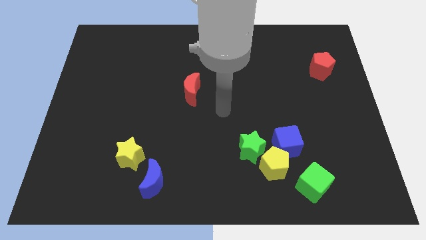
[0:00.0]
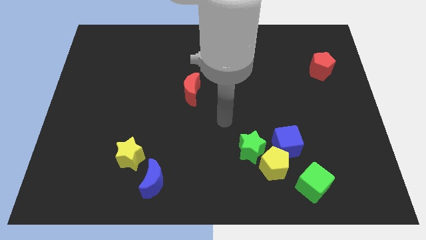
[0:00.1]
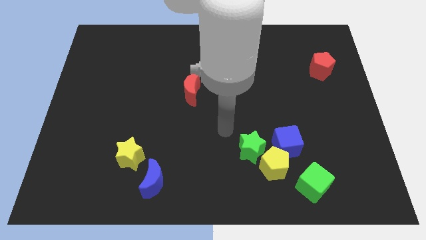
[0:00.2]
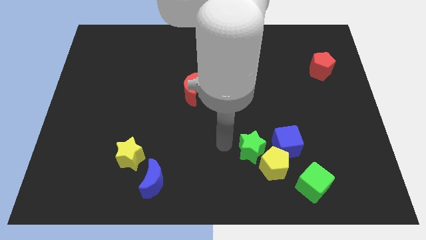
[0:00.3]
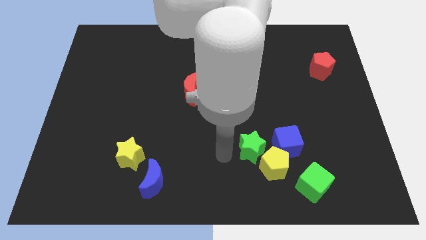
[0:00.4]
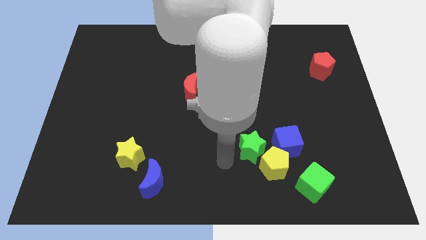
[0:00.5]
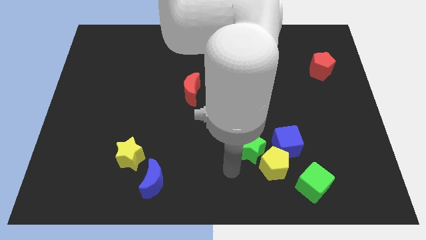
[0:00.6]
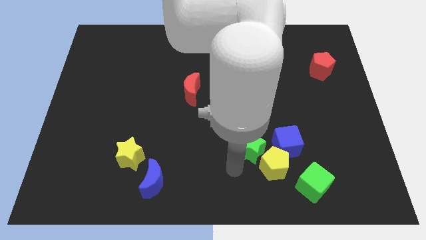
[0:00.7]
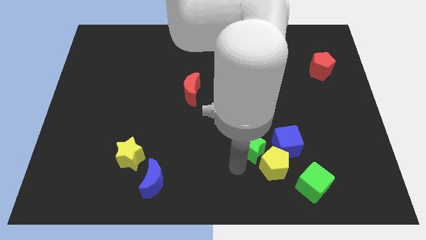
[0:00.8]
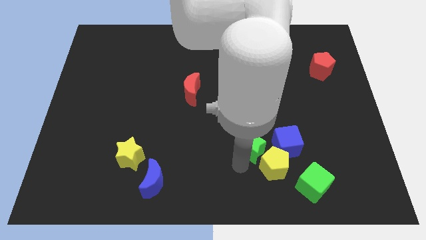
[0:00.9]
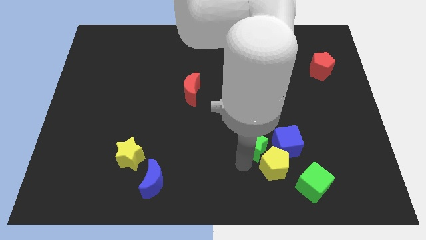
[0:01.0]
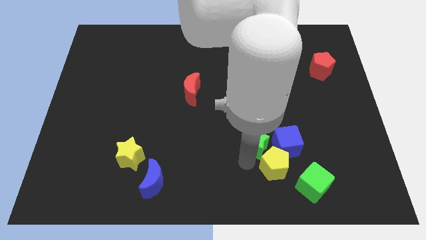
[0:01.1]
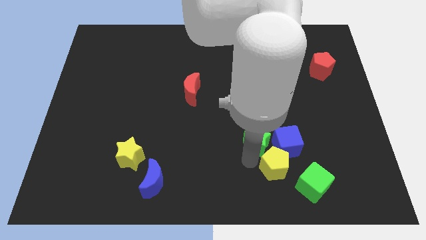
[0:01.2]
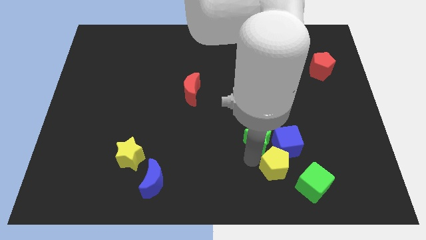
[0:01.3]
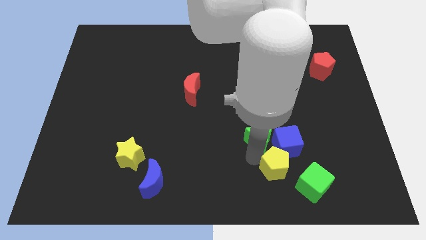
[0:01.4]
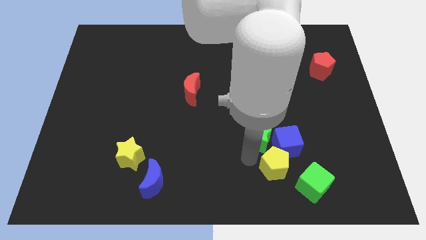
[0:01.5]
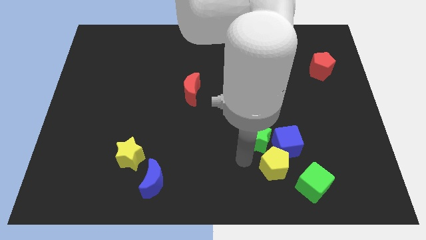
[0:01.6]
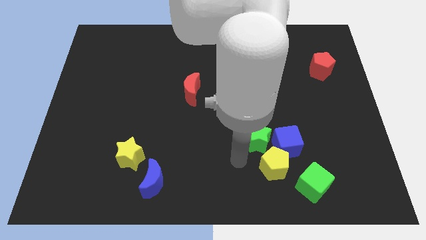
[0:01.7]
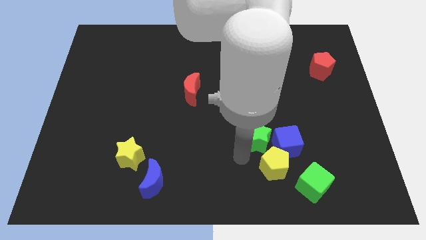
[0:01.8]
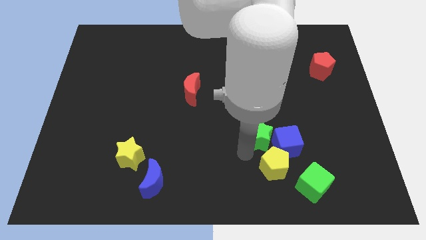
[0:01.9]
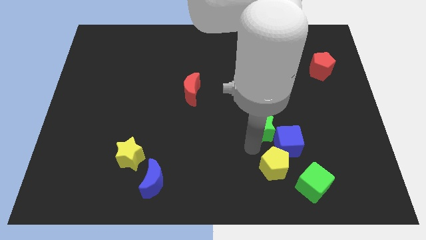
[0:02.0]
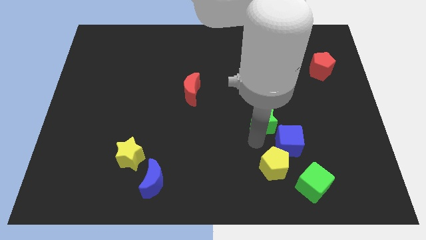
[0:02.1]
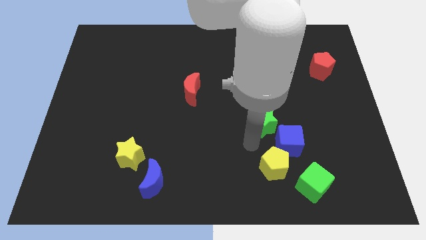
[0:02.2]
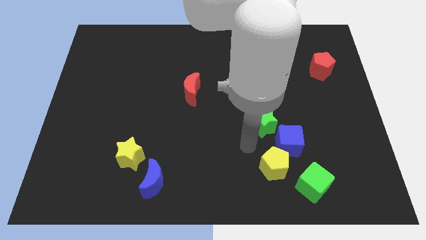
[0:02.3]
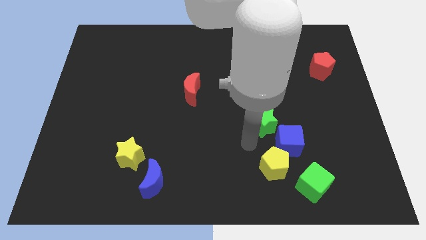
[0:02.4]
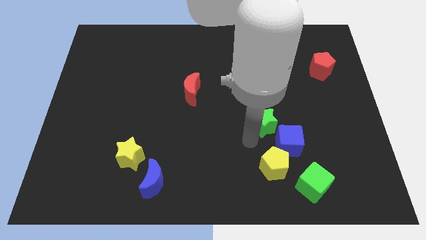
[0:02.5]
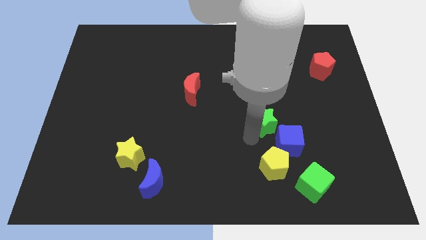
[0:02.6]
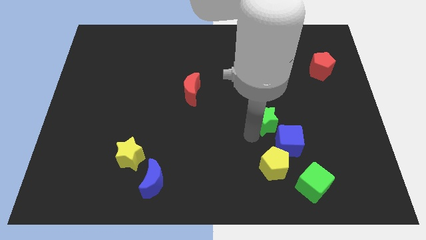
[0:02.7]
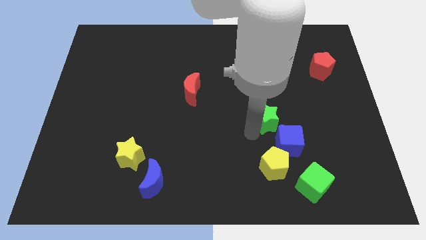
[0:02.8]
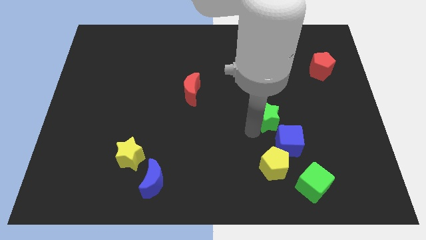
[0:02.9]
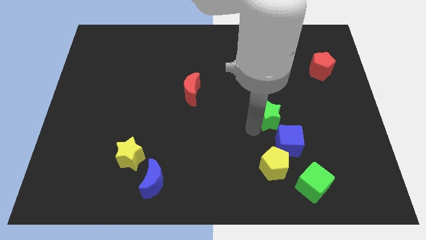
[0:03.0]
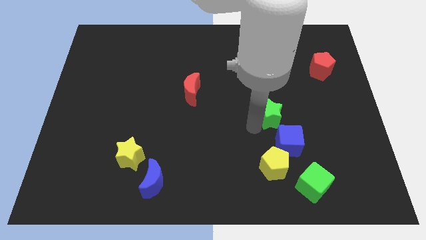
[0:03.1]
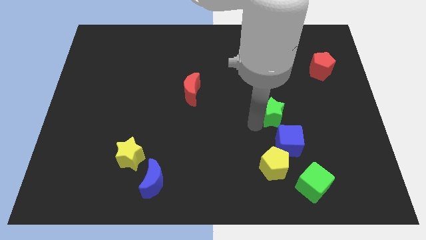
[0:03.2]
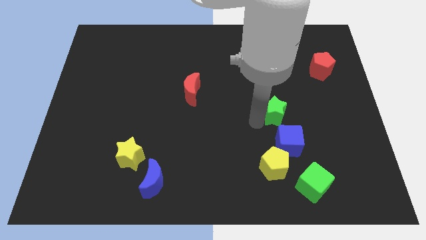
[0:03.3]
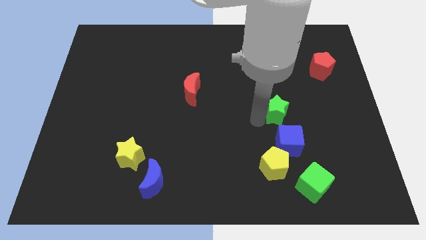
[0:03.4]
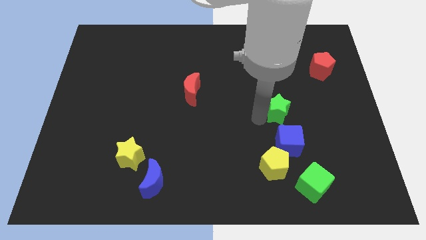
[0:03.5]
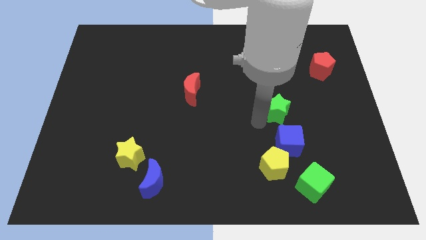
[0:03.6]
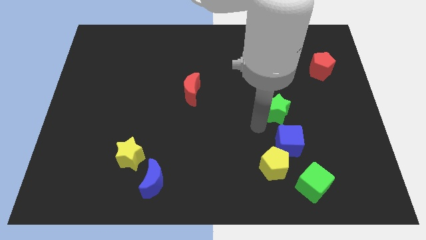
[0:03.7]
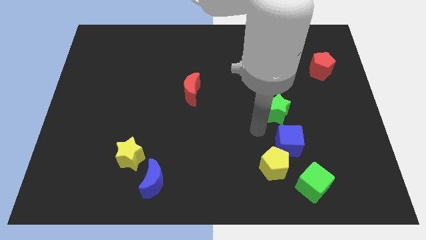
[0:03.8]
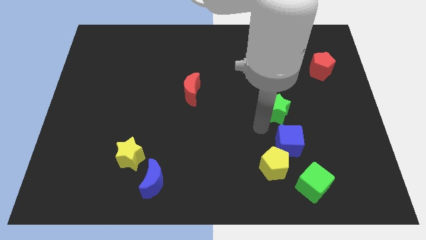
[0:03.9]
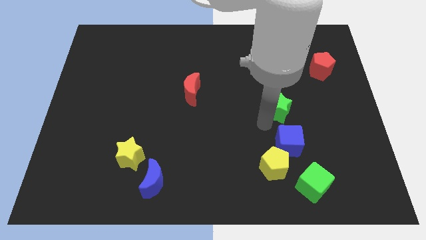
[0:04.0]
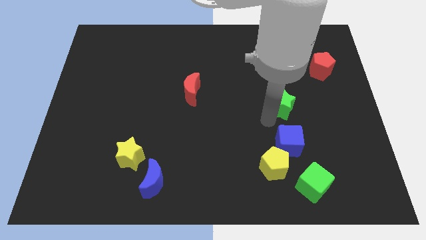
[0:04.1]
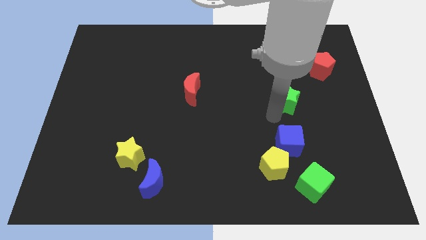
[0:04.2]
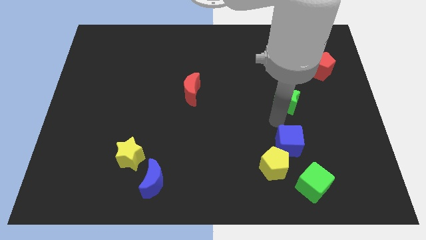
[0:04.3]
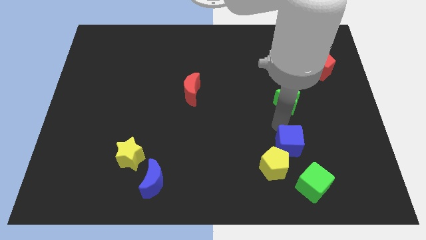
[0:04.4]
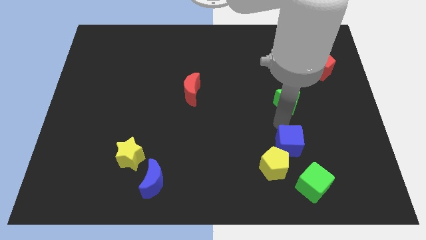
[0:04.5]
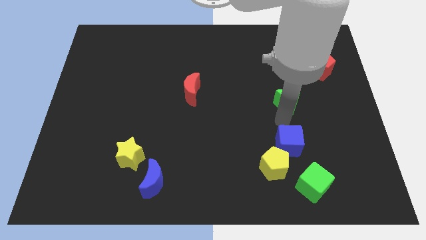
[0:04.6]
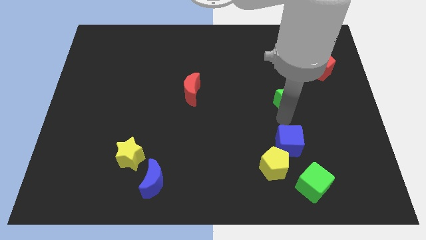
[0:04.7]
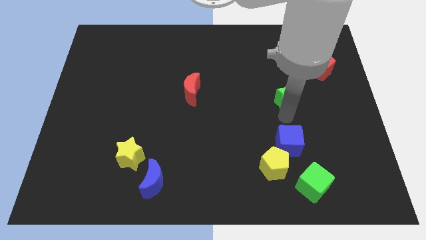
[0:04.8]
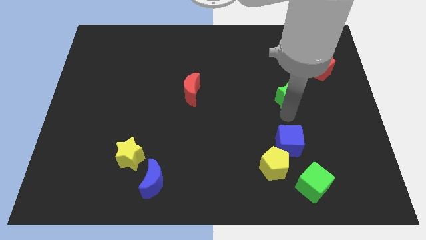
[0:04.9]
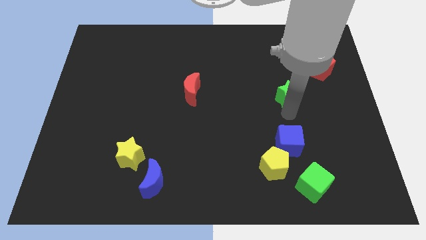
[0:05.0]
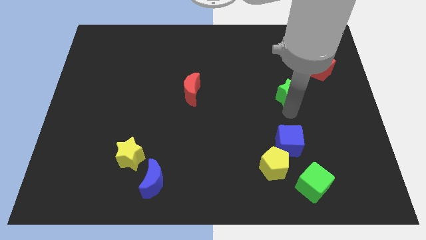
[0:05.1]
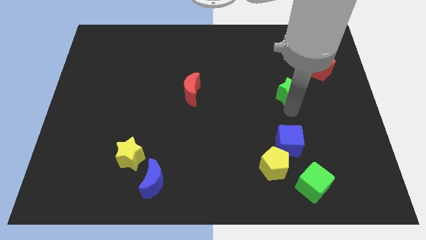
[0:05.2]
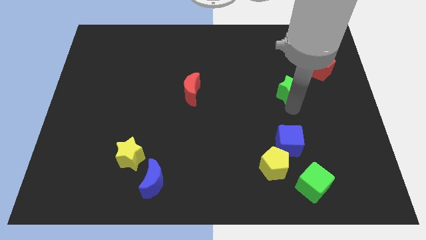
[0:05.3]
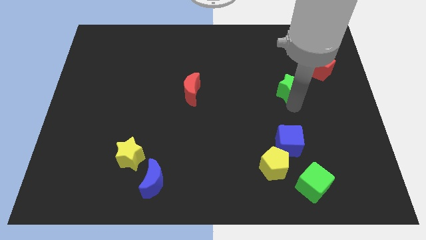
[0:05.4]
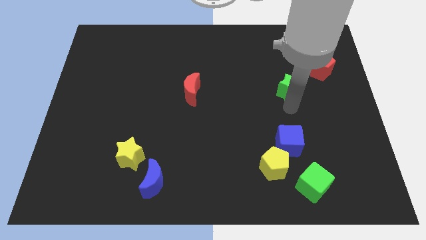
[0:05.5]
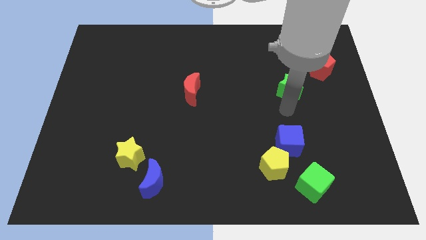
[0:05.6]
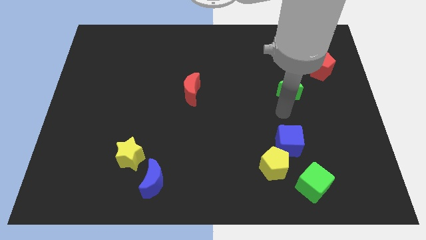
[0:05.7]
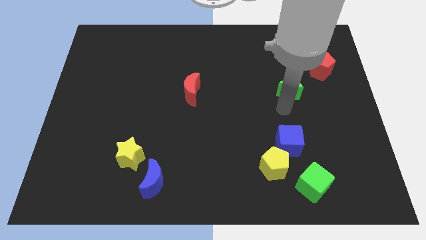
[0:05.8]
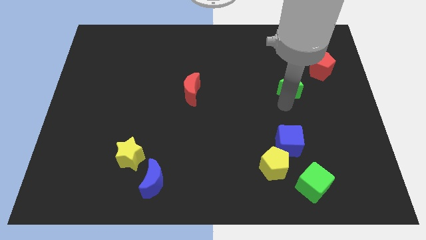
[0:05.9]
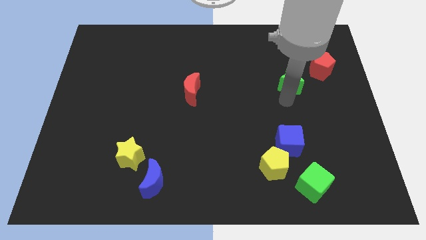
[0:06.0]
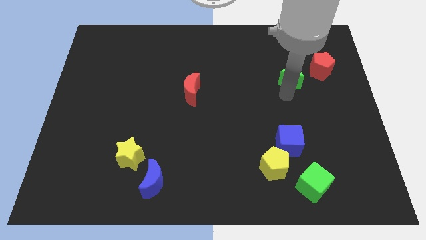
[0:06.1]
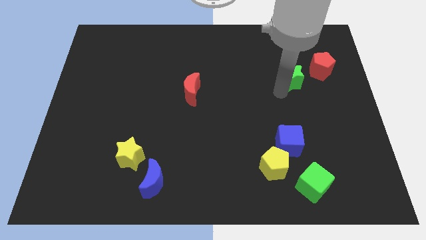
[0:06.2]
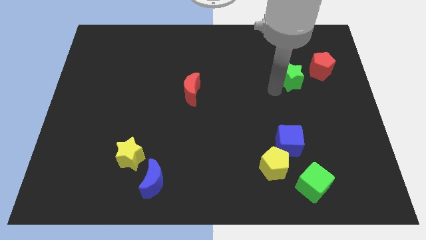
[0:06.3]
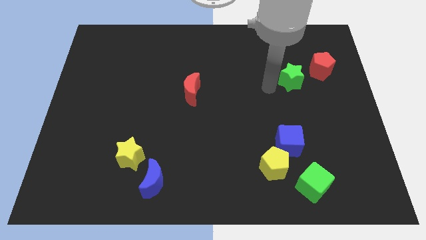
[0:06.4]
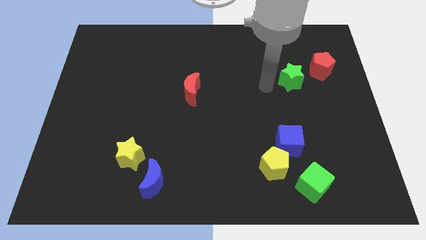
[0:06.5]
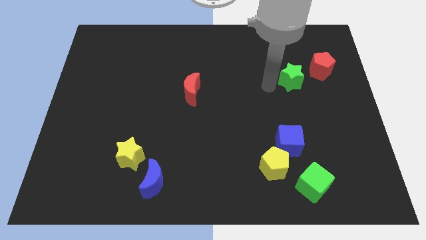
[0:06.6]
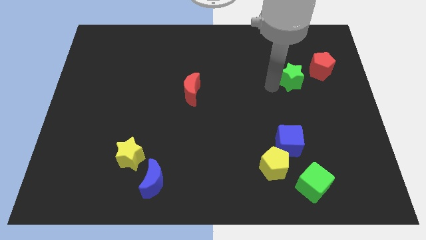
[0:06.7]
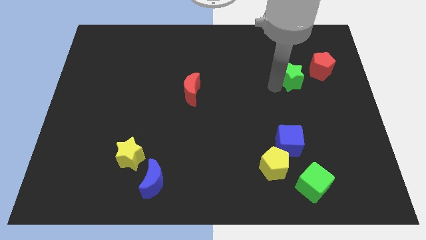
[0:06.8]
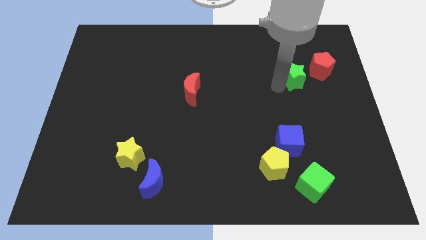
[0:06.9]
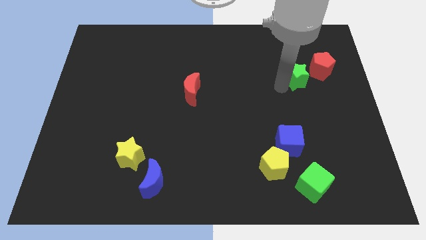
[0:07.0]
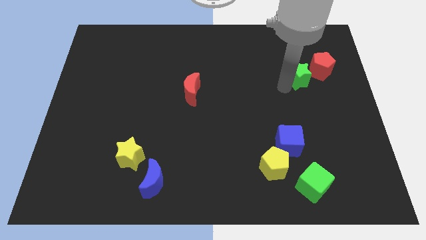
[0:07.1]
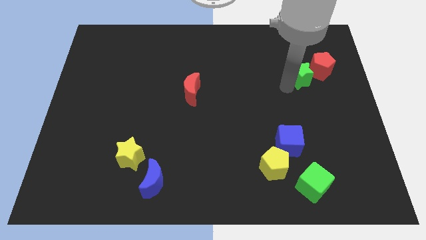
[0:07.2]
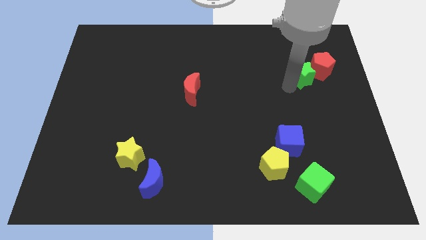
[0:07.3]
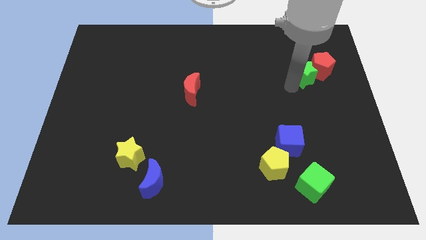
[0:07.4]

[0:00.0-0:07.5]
push the green star next to the red pentagon

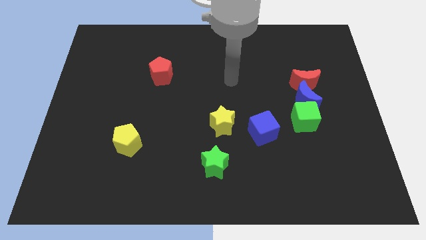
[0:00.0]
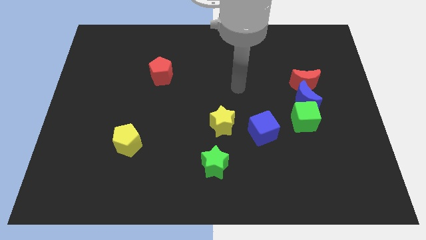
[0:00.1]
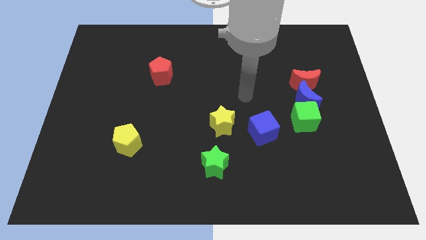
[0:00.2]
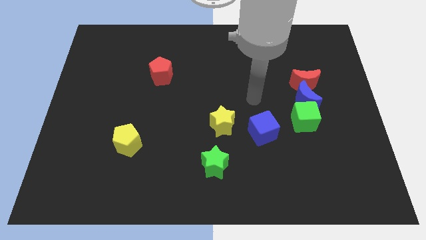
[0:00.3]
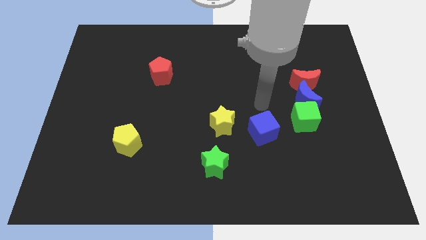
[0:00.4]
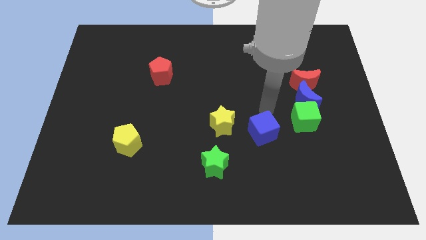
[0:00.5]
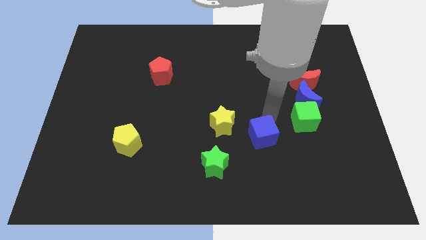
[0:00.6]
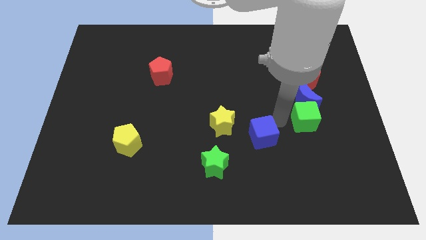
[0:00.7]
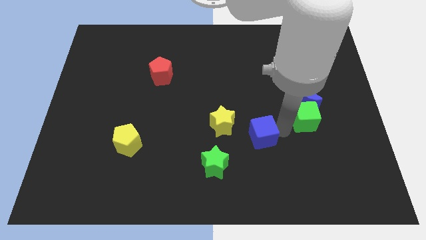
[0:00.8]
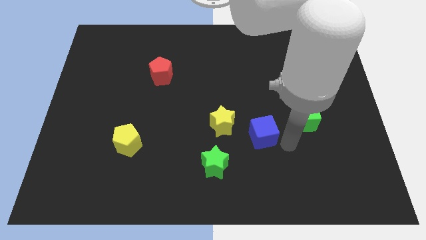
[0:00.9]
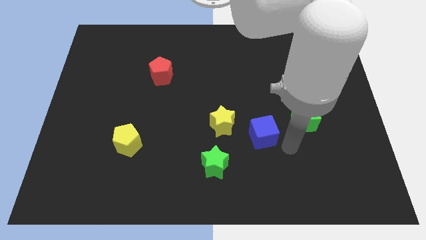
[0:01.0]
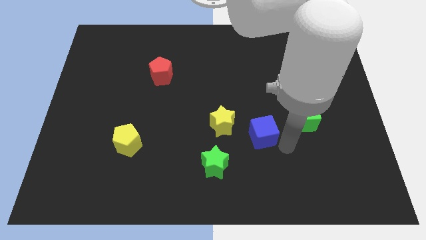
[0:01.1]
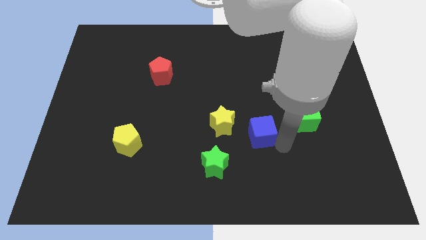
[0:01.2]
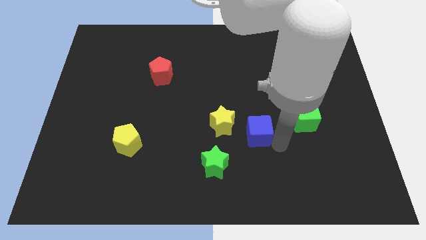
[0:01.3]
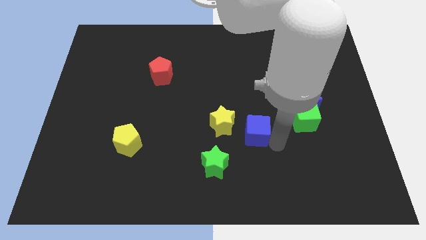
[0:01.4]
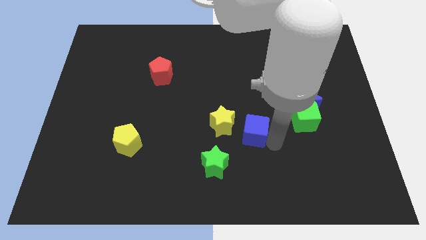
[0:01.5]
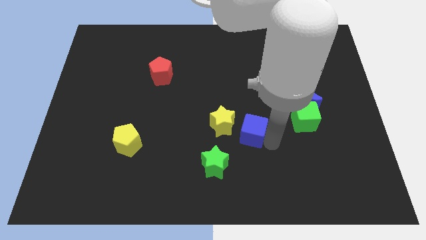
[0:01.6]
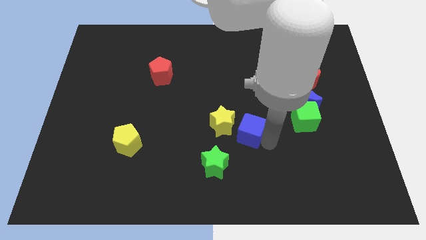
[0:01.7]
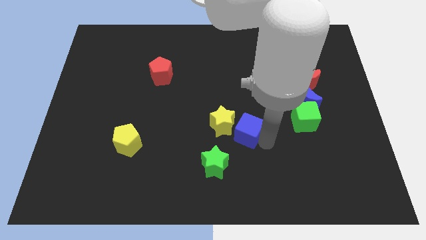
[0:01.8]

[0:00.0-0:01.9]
move the blue cube to the yellow star
